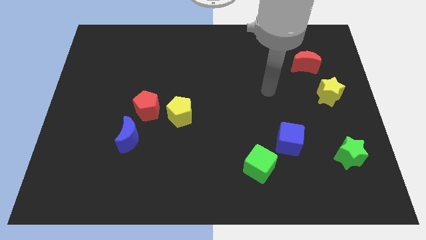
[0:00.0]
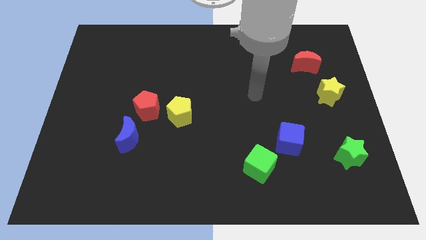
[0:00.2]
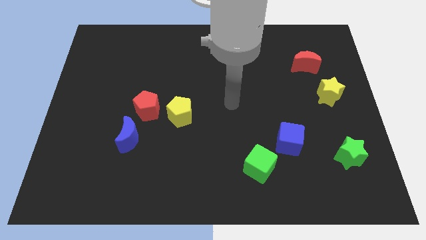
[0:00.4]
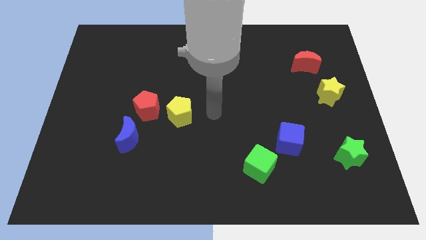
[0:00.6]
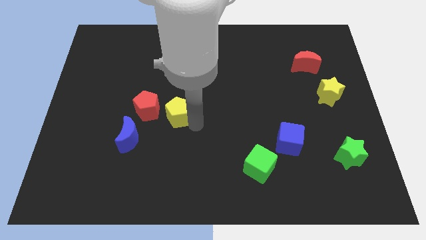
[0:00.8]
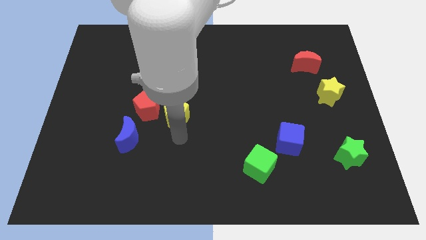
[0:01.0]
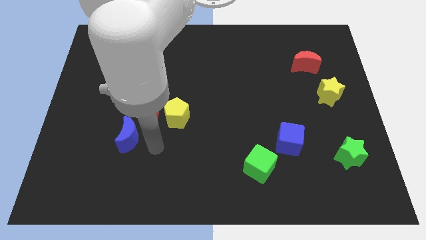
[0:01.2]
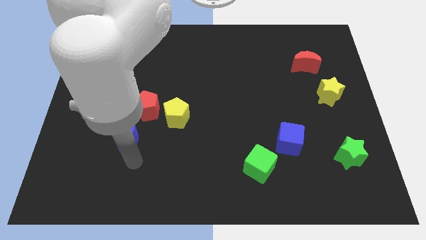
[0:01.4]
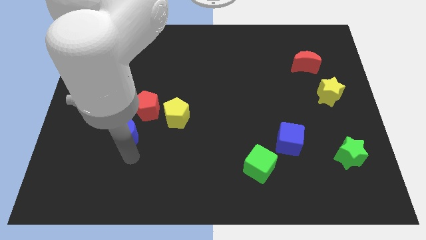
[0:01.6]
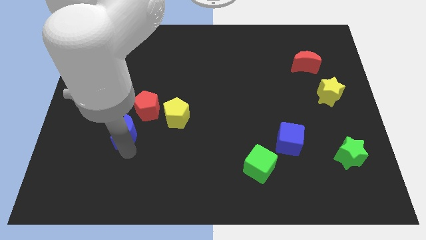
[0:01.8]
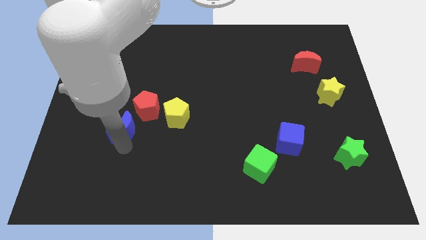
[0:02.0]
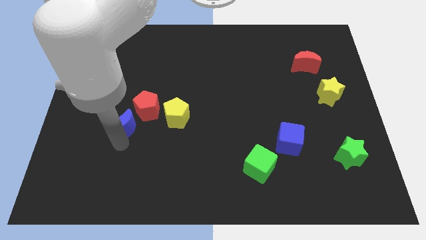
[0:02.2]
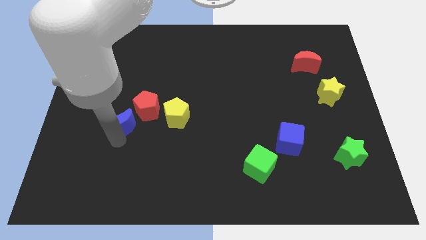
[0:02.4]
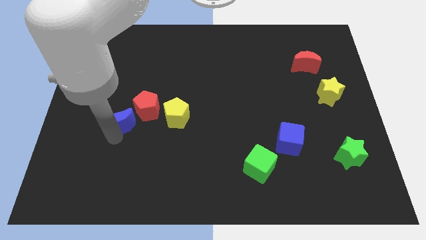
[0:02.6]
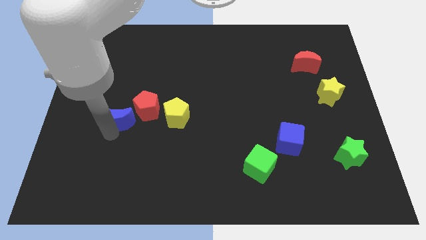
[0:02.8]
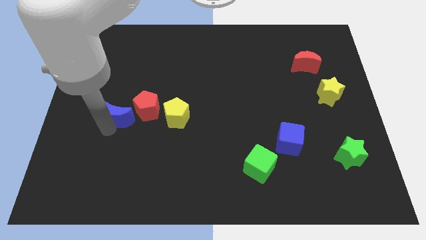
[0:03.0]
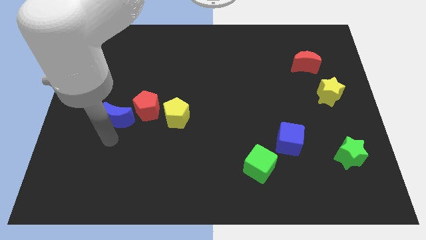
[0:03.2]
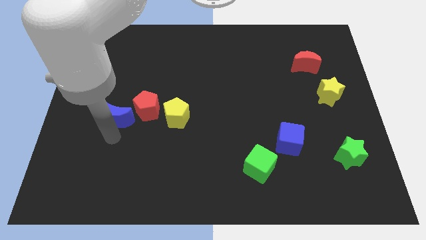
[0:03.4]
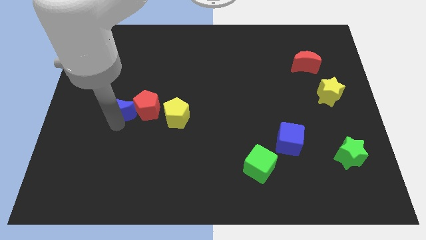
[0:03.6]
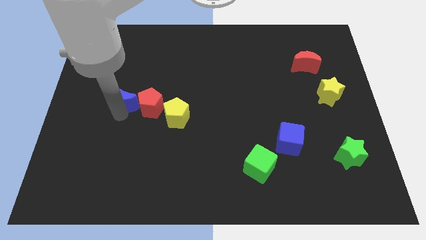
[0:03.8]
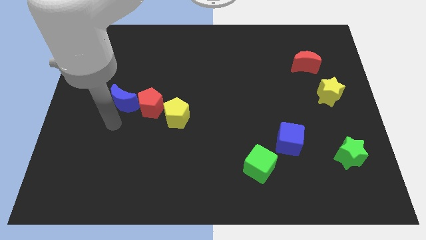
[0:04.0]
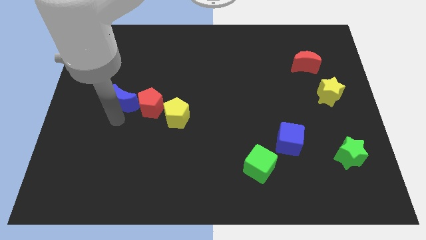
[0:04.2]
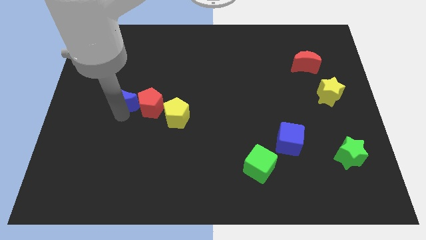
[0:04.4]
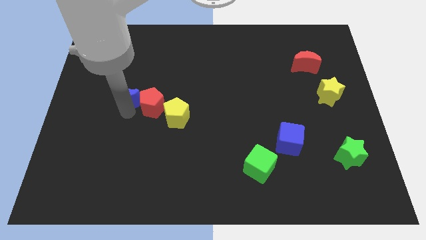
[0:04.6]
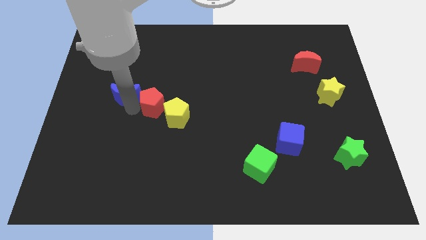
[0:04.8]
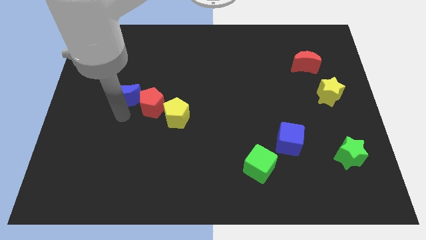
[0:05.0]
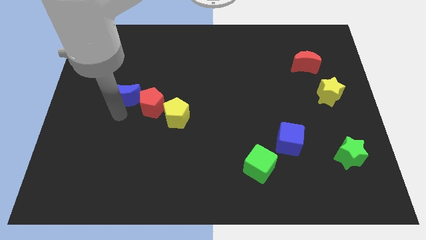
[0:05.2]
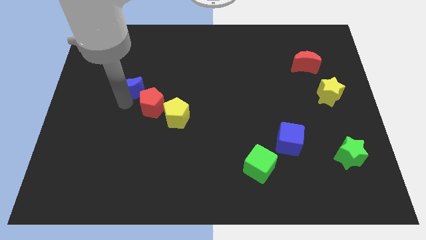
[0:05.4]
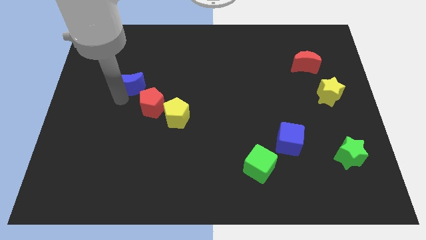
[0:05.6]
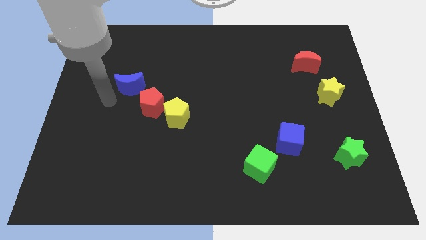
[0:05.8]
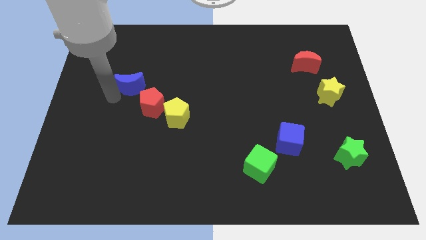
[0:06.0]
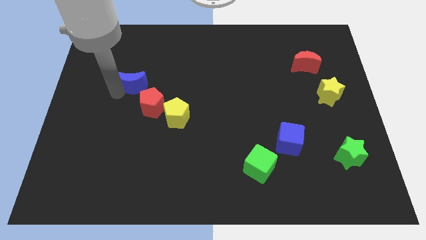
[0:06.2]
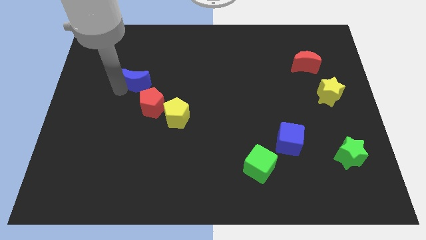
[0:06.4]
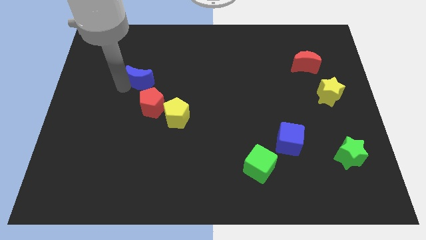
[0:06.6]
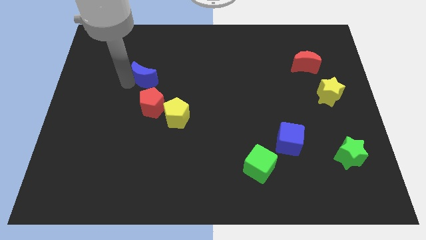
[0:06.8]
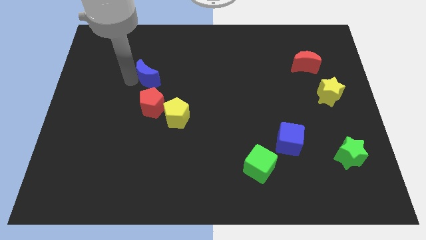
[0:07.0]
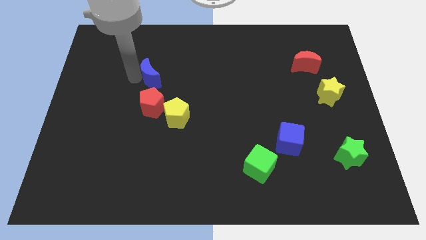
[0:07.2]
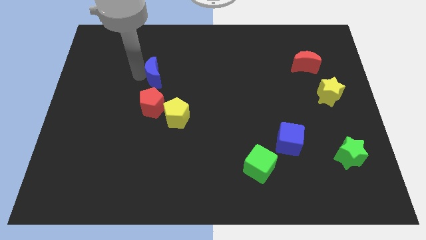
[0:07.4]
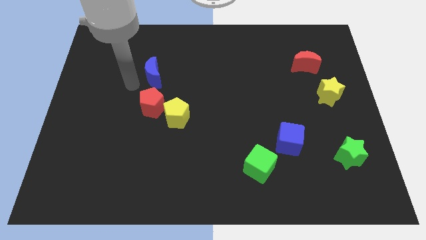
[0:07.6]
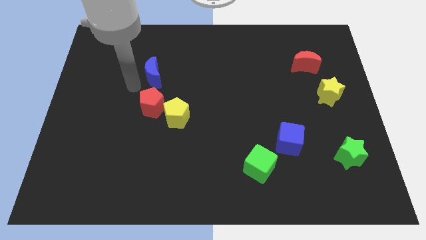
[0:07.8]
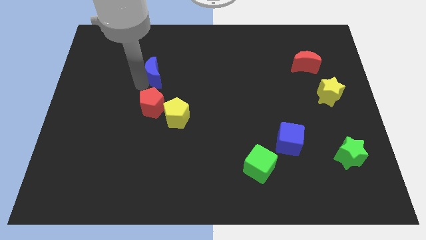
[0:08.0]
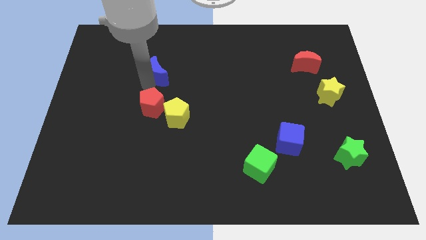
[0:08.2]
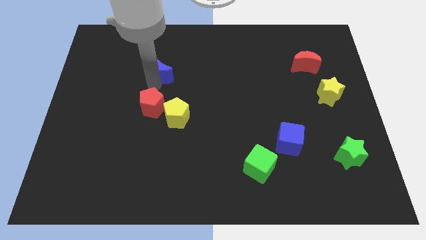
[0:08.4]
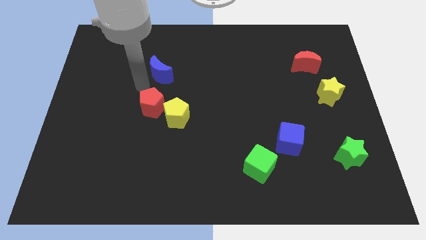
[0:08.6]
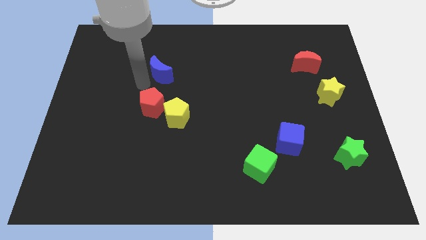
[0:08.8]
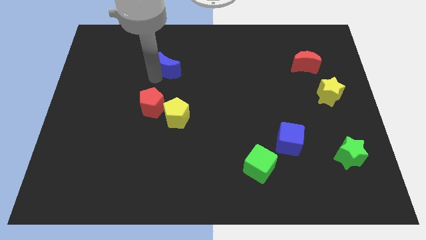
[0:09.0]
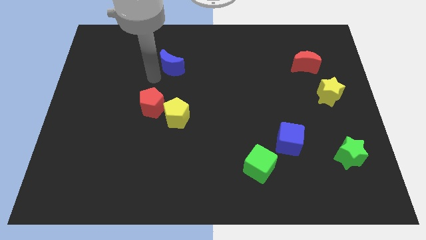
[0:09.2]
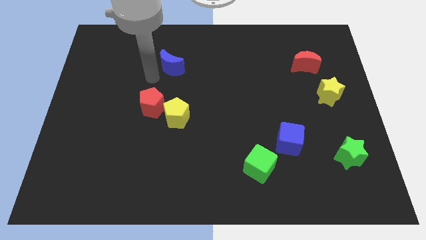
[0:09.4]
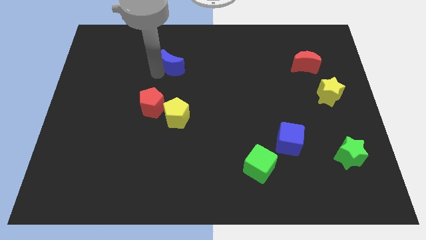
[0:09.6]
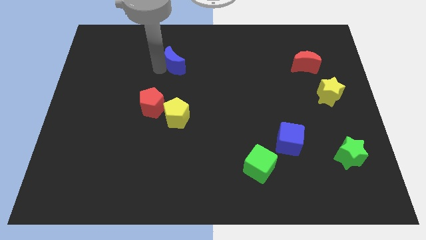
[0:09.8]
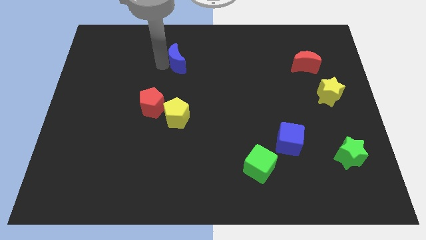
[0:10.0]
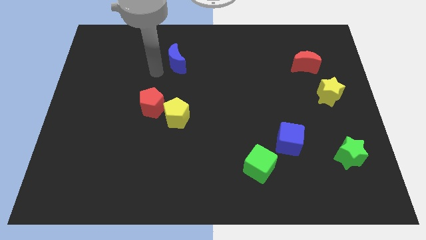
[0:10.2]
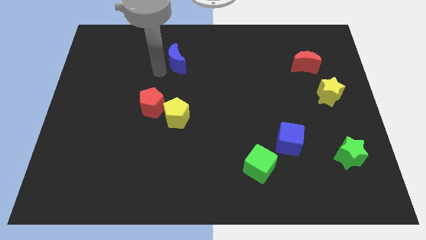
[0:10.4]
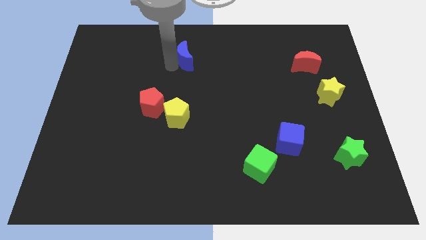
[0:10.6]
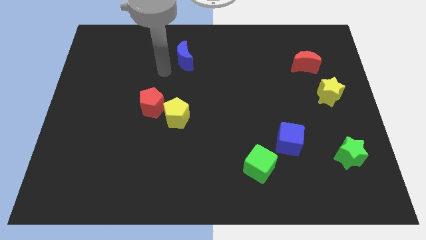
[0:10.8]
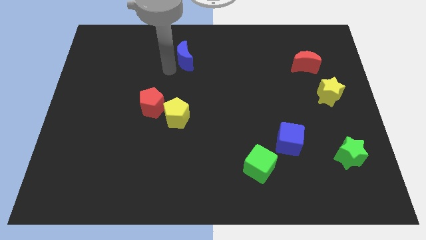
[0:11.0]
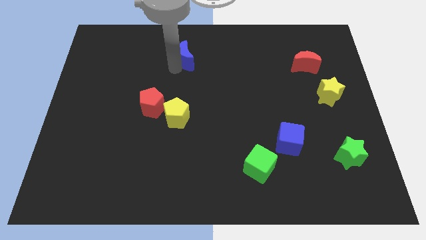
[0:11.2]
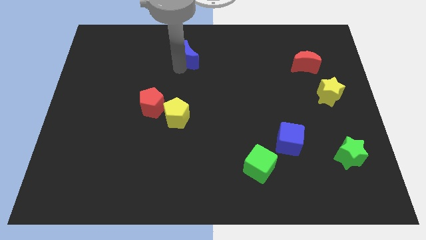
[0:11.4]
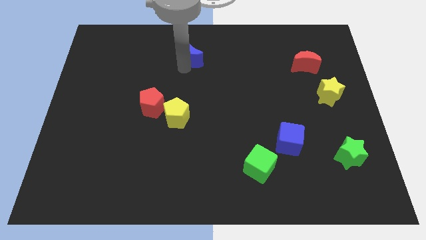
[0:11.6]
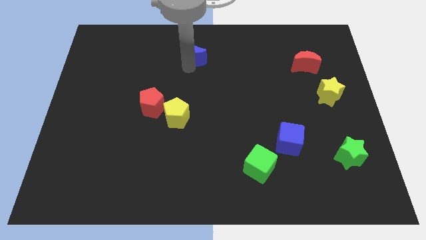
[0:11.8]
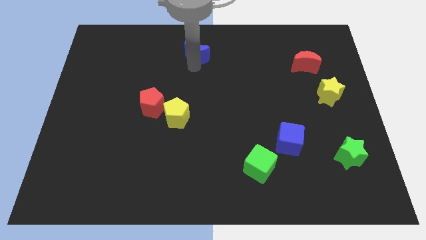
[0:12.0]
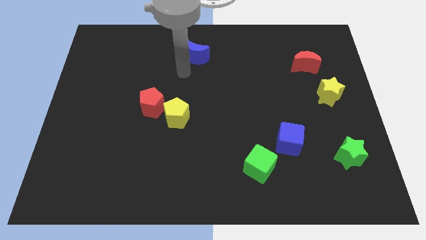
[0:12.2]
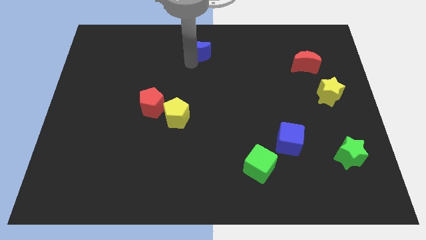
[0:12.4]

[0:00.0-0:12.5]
slide the blue moon to the top
